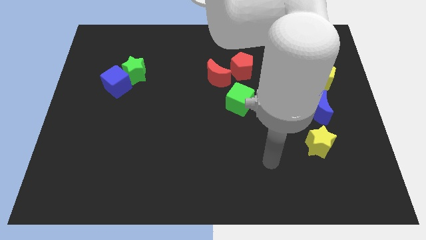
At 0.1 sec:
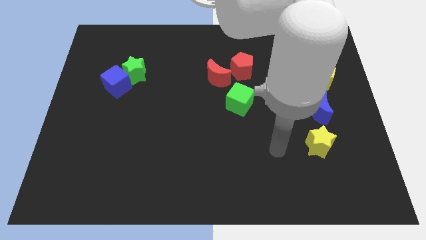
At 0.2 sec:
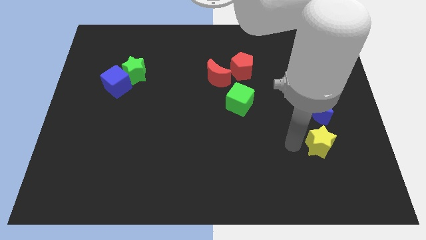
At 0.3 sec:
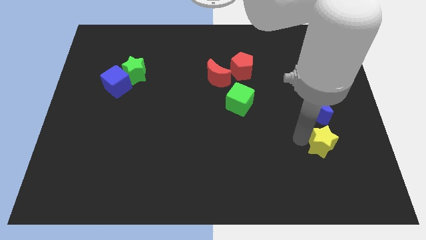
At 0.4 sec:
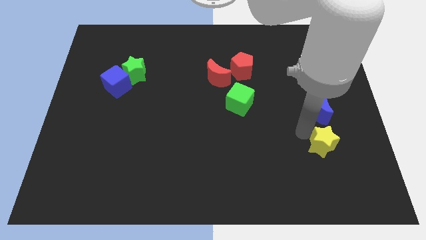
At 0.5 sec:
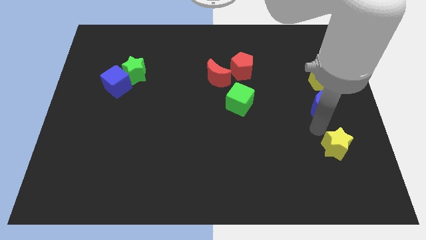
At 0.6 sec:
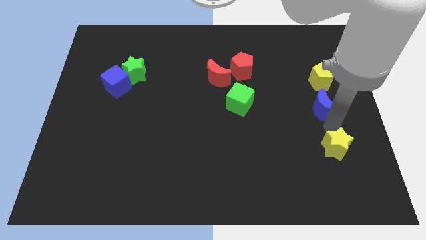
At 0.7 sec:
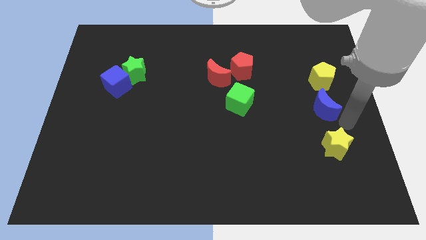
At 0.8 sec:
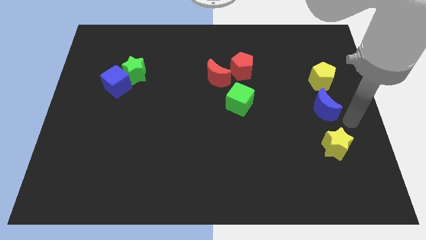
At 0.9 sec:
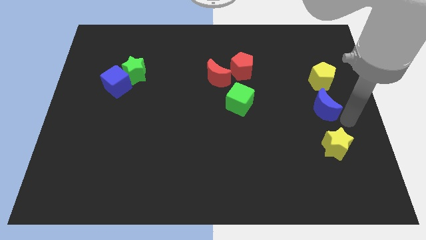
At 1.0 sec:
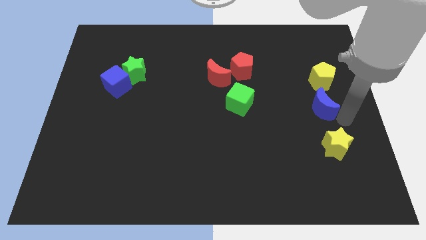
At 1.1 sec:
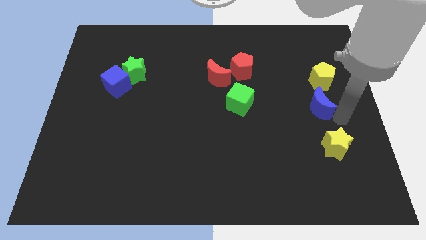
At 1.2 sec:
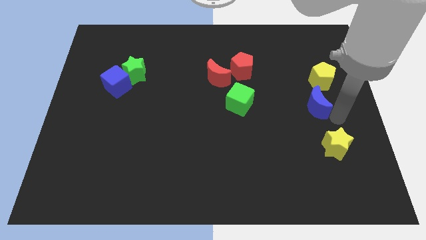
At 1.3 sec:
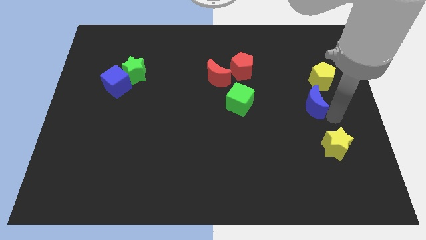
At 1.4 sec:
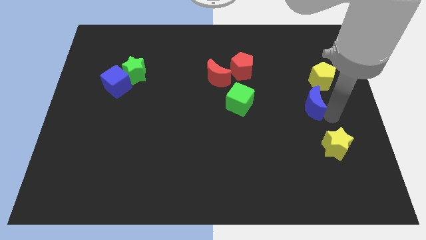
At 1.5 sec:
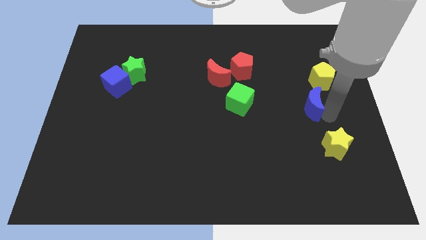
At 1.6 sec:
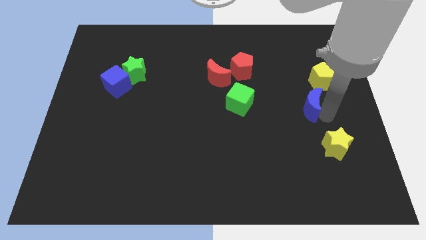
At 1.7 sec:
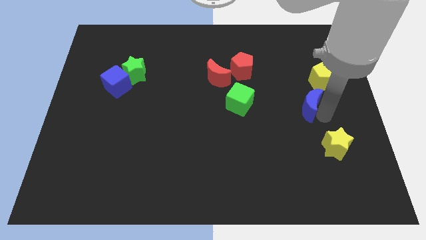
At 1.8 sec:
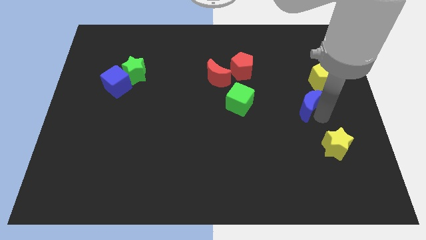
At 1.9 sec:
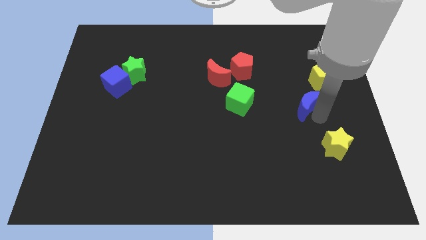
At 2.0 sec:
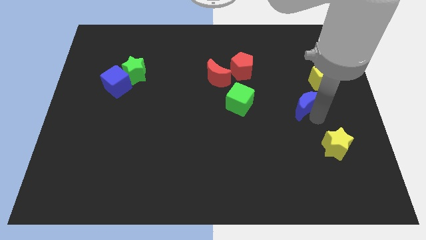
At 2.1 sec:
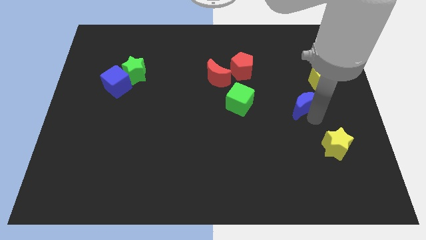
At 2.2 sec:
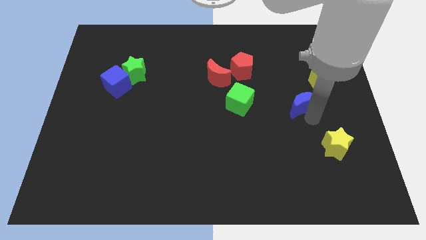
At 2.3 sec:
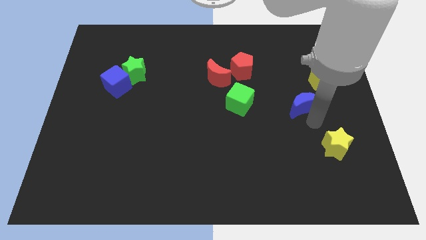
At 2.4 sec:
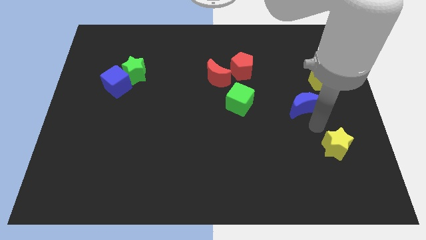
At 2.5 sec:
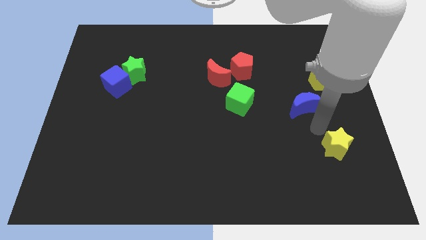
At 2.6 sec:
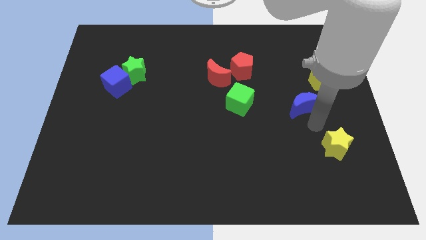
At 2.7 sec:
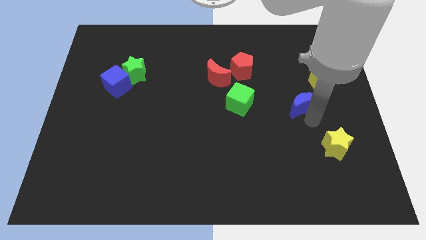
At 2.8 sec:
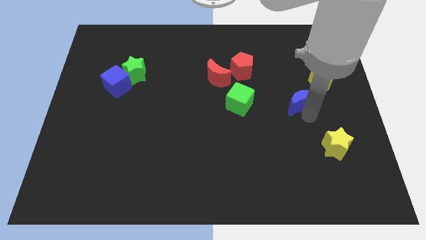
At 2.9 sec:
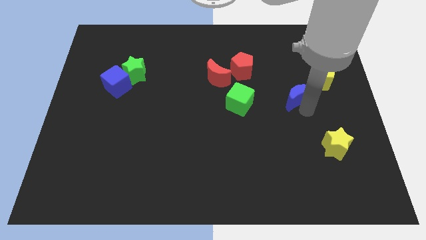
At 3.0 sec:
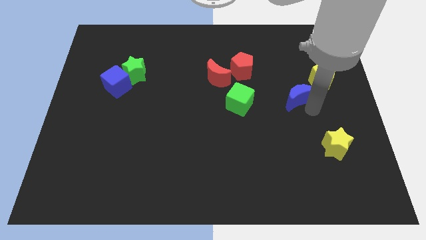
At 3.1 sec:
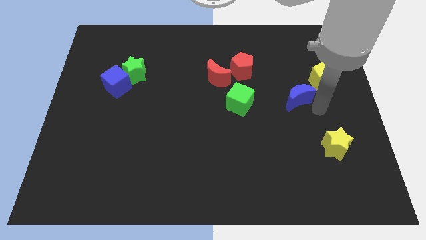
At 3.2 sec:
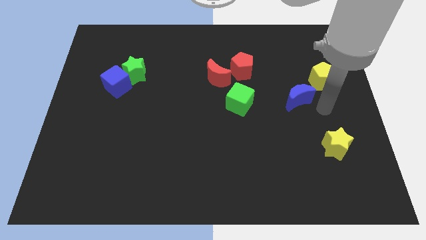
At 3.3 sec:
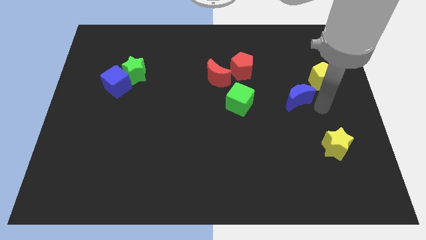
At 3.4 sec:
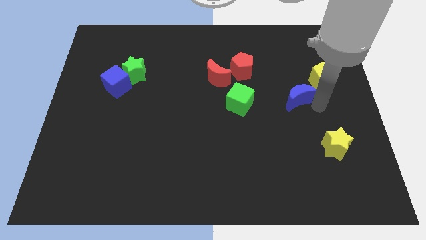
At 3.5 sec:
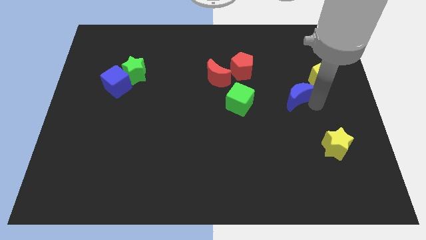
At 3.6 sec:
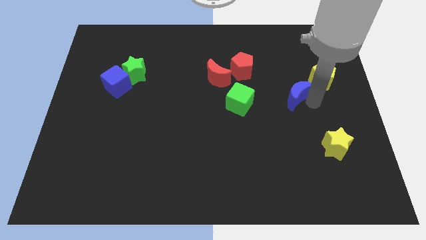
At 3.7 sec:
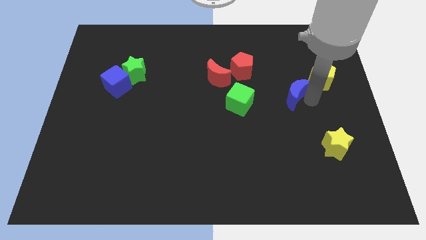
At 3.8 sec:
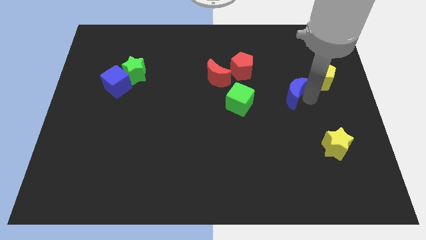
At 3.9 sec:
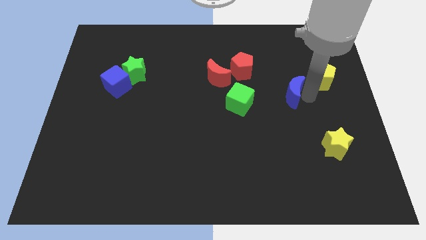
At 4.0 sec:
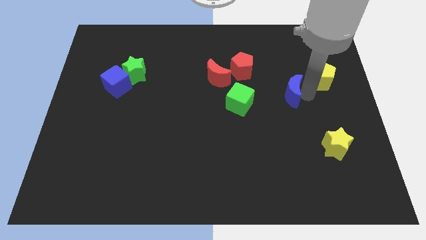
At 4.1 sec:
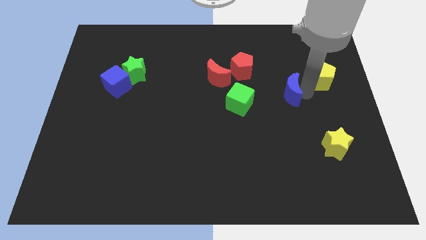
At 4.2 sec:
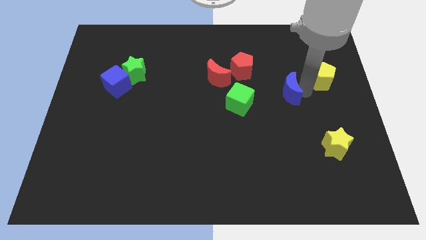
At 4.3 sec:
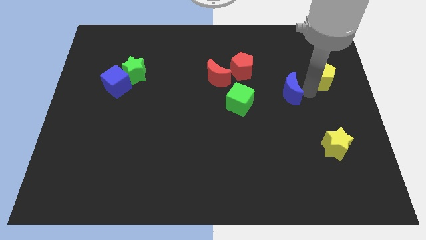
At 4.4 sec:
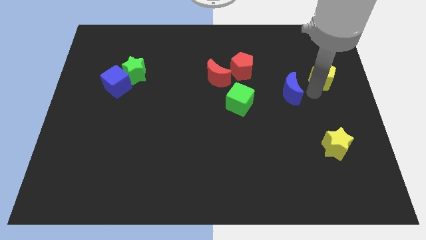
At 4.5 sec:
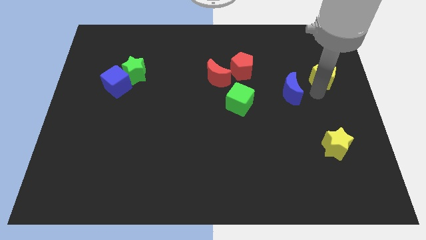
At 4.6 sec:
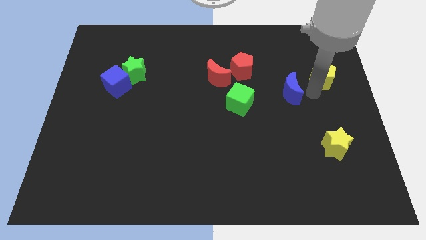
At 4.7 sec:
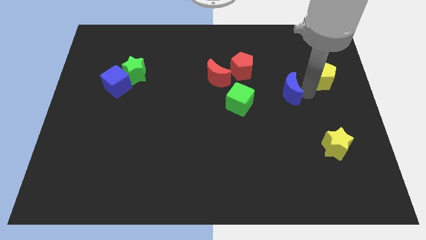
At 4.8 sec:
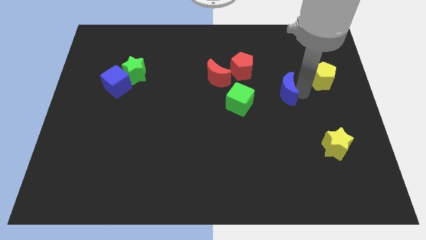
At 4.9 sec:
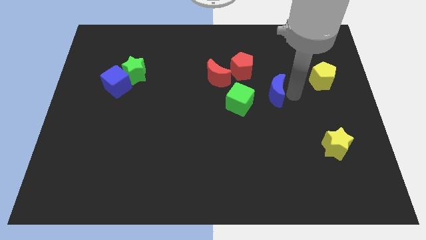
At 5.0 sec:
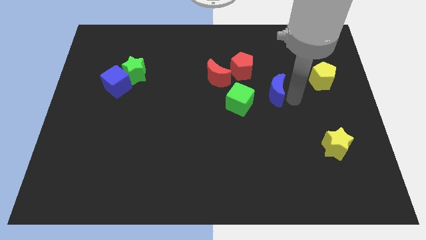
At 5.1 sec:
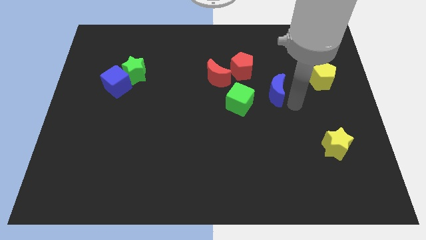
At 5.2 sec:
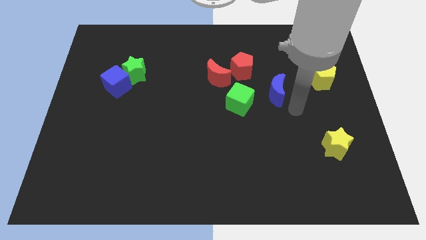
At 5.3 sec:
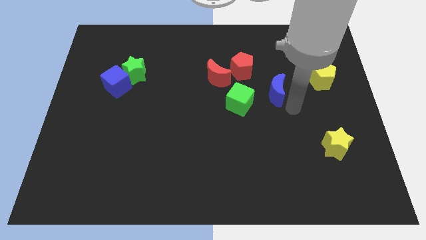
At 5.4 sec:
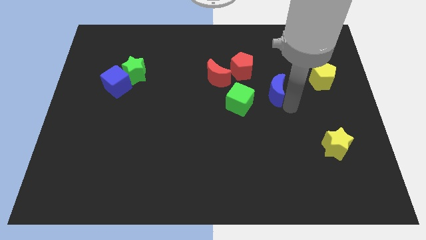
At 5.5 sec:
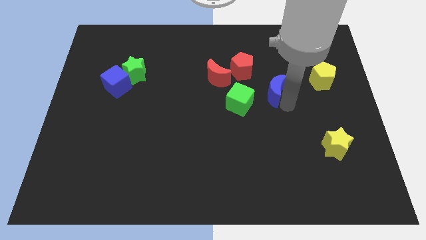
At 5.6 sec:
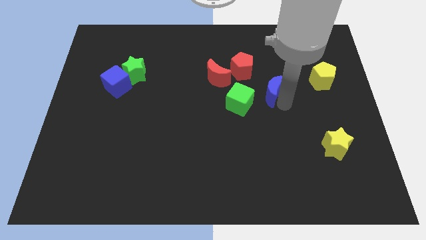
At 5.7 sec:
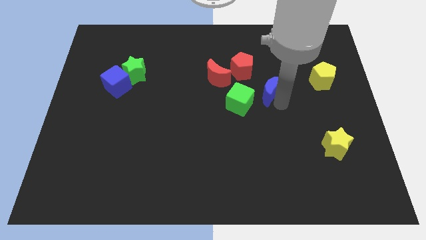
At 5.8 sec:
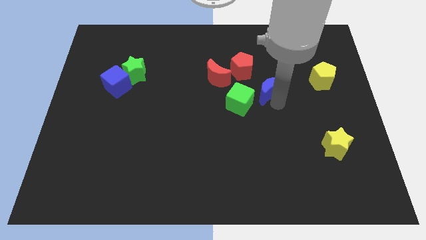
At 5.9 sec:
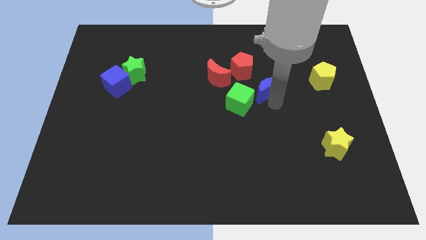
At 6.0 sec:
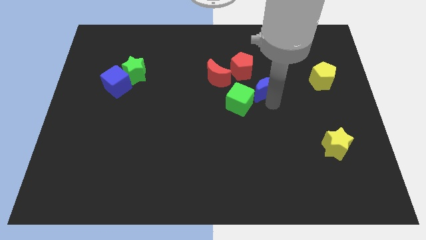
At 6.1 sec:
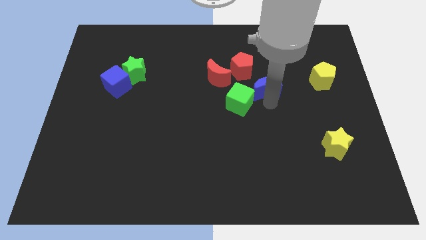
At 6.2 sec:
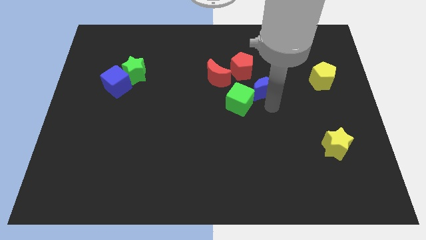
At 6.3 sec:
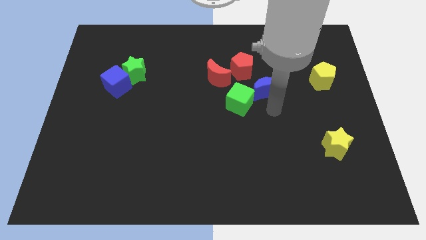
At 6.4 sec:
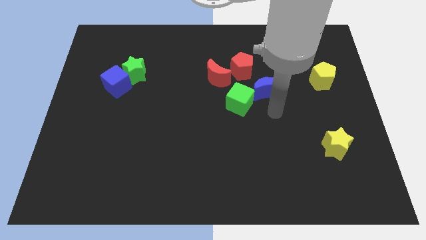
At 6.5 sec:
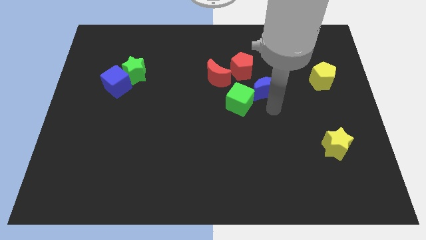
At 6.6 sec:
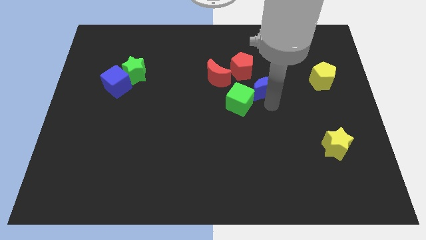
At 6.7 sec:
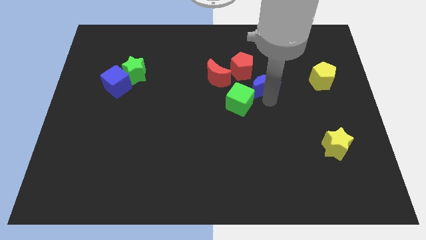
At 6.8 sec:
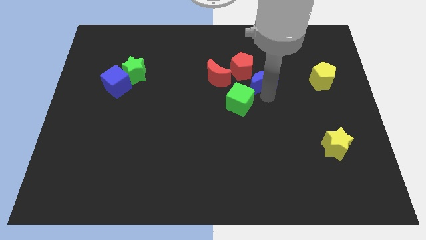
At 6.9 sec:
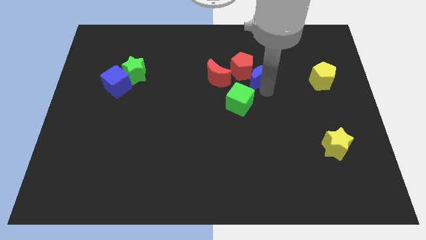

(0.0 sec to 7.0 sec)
move the blue moon close to the red pentagon

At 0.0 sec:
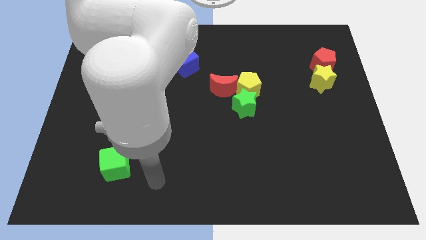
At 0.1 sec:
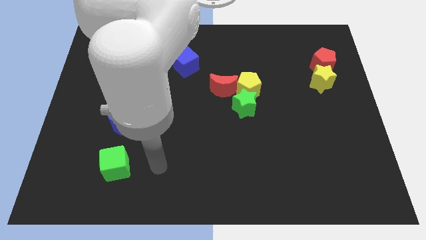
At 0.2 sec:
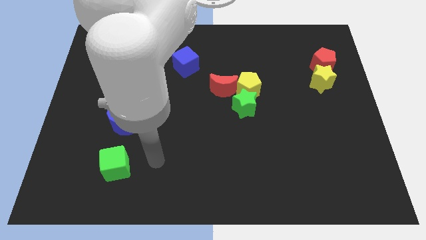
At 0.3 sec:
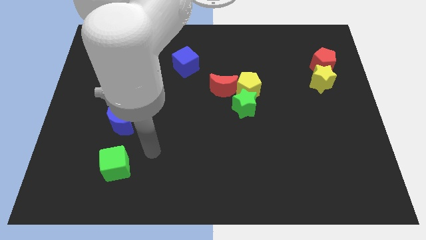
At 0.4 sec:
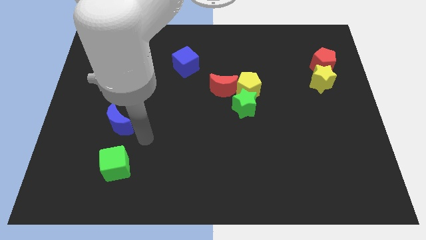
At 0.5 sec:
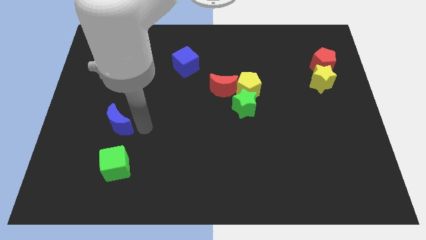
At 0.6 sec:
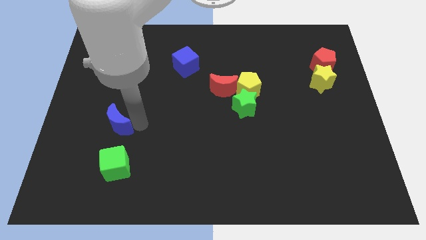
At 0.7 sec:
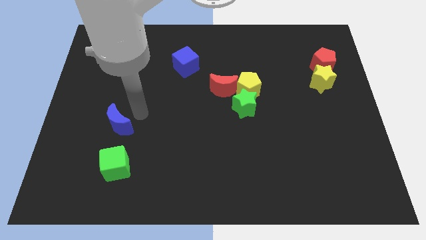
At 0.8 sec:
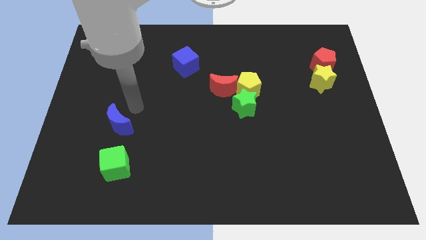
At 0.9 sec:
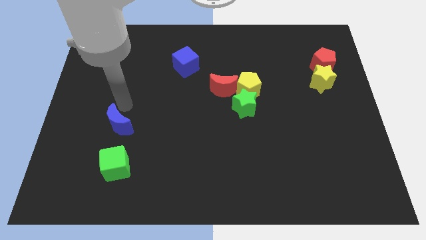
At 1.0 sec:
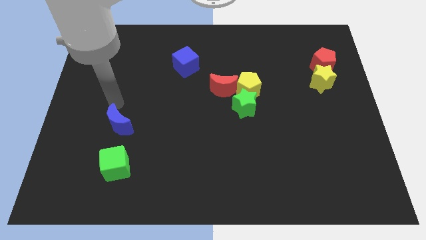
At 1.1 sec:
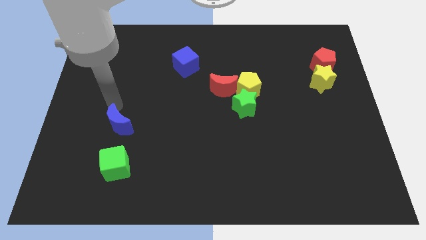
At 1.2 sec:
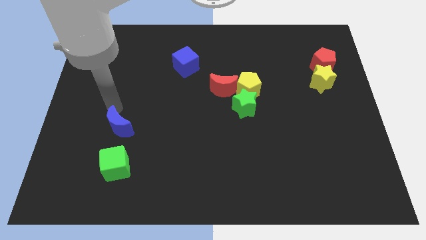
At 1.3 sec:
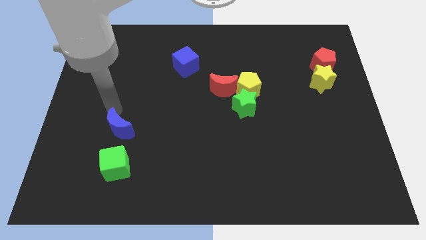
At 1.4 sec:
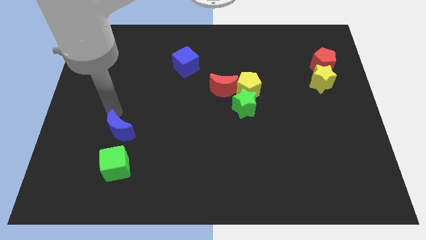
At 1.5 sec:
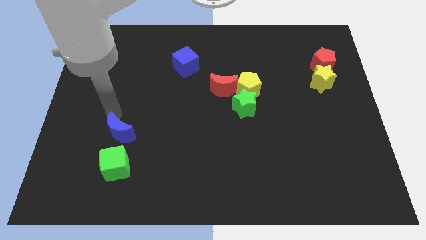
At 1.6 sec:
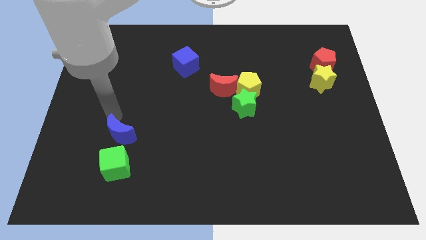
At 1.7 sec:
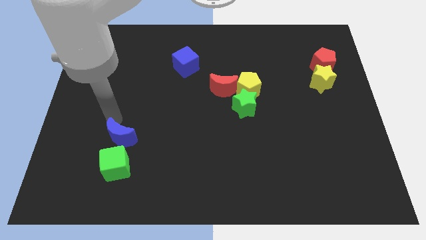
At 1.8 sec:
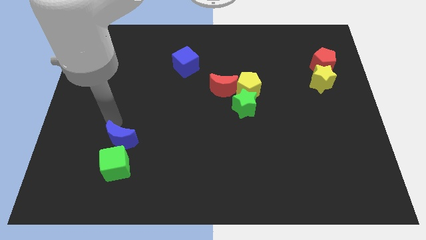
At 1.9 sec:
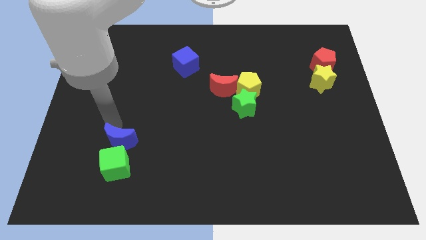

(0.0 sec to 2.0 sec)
move the blue moon close to the green cube
